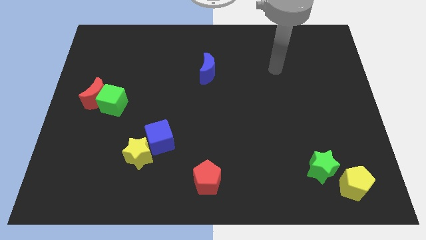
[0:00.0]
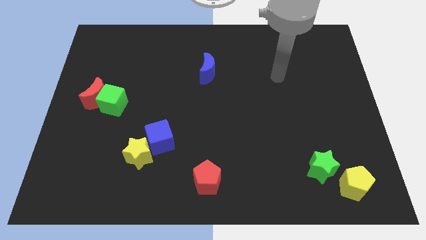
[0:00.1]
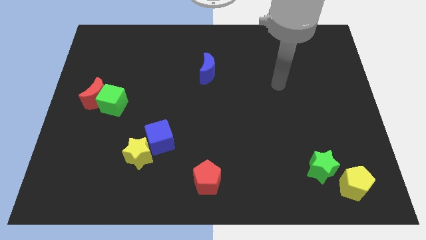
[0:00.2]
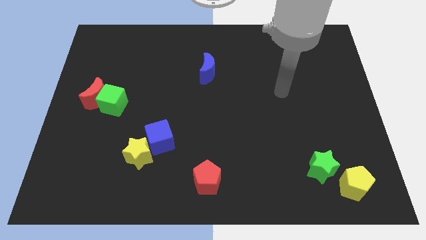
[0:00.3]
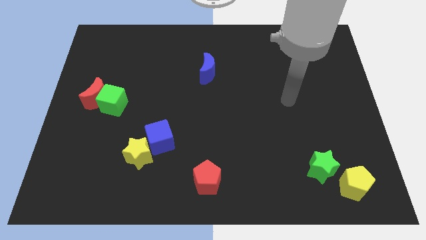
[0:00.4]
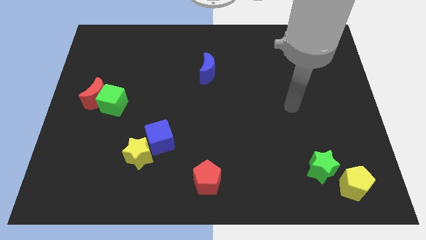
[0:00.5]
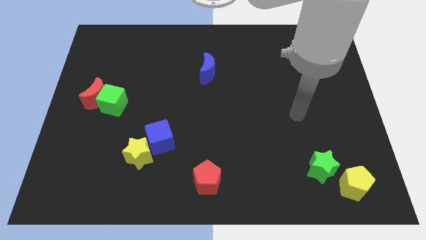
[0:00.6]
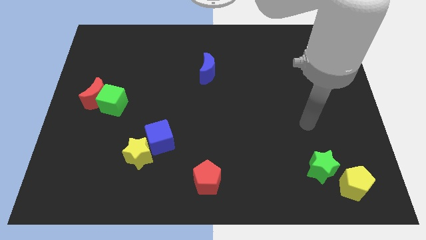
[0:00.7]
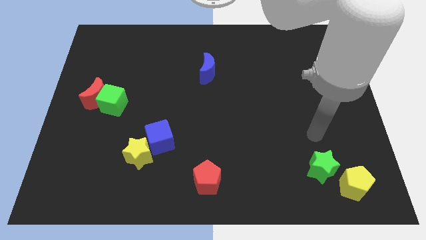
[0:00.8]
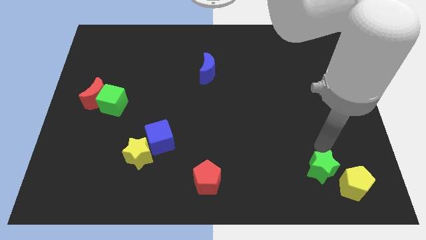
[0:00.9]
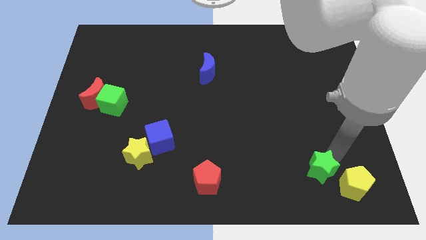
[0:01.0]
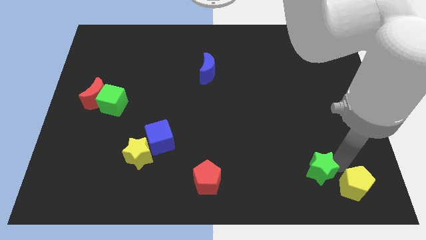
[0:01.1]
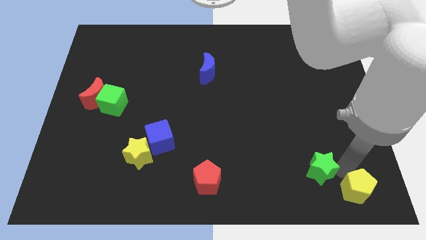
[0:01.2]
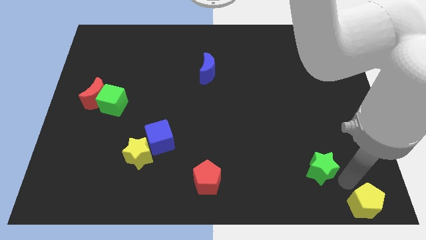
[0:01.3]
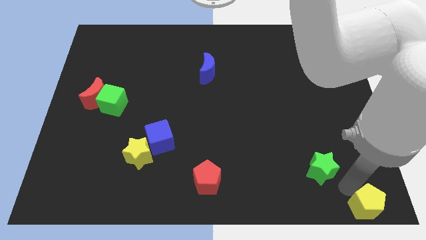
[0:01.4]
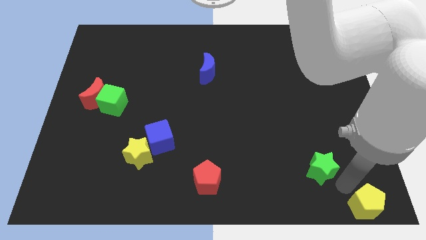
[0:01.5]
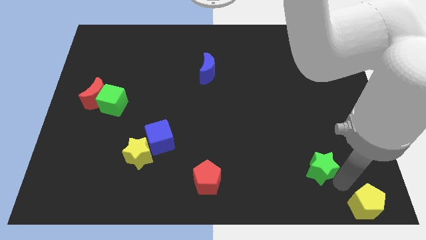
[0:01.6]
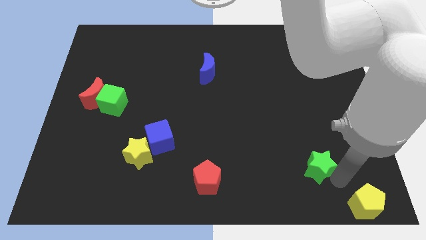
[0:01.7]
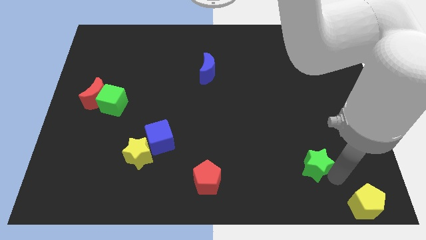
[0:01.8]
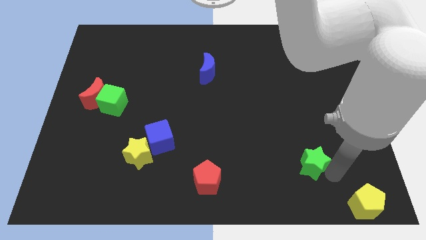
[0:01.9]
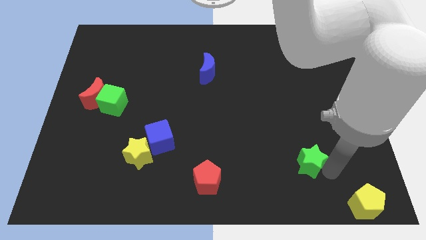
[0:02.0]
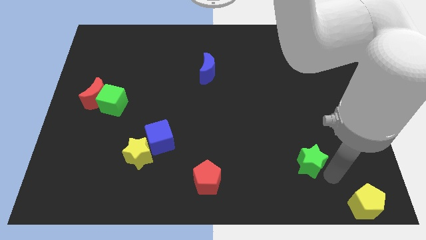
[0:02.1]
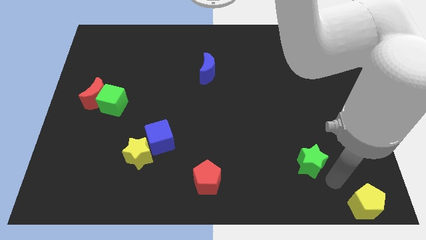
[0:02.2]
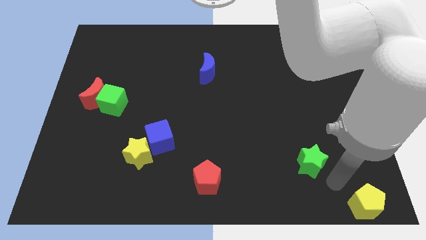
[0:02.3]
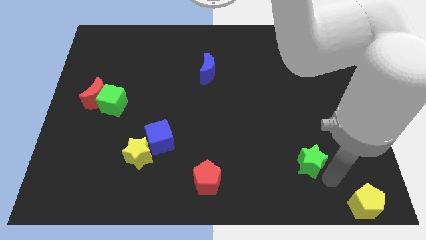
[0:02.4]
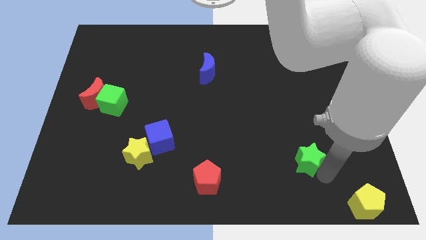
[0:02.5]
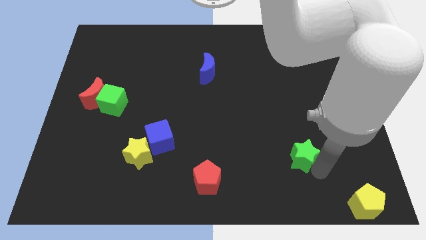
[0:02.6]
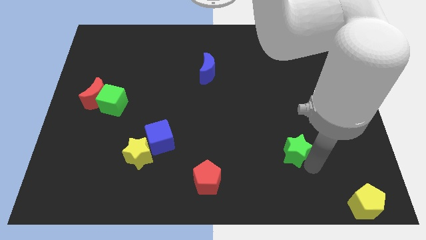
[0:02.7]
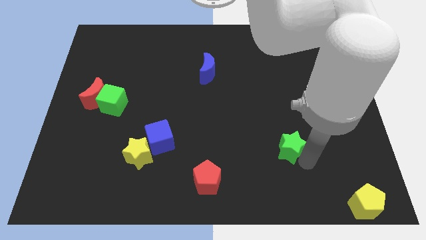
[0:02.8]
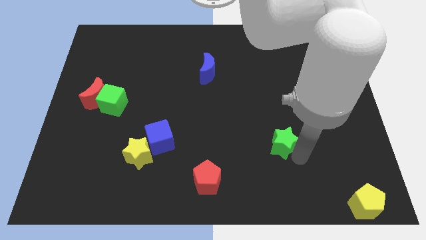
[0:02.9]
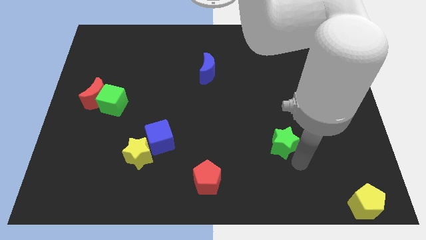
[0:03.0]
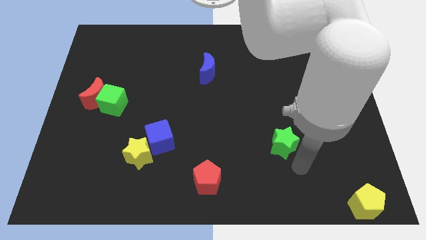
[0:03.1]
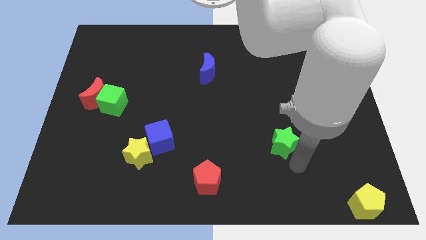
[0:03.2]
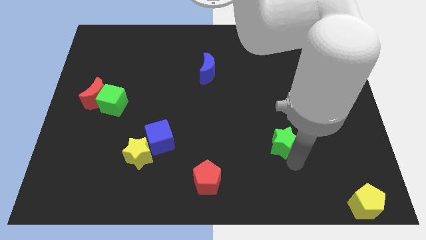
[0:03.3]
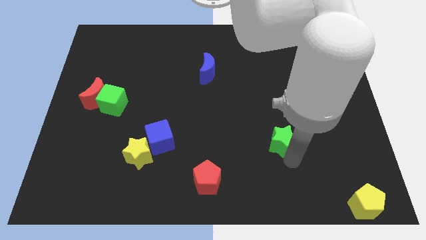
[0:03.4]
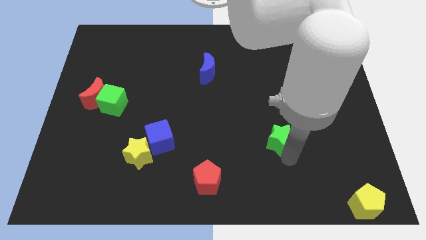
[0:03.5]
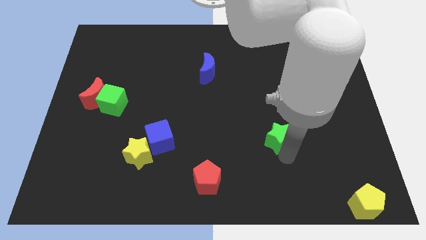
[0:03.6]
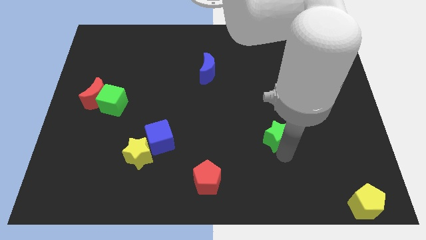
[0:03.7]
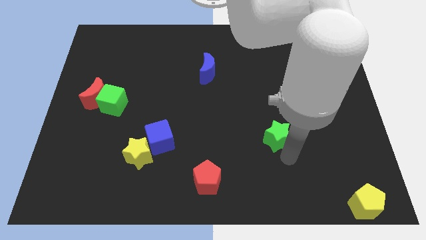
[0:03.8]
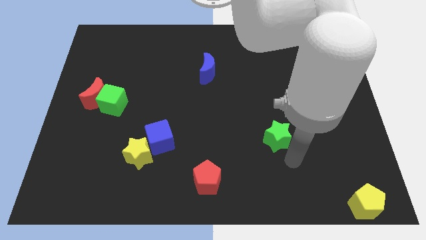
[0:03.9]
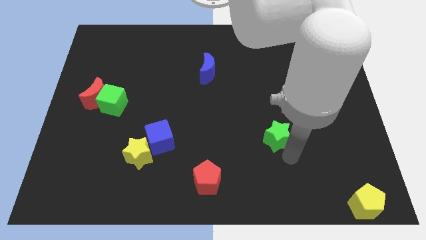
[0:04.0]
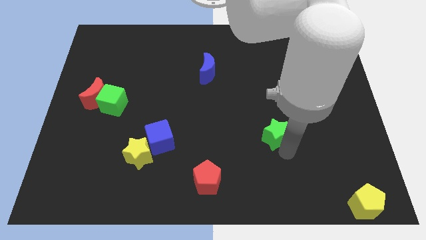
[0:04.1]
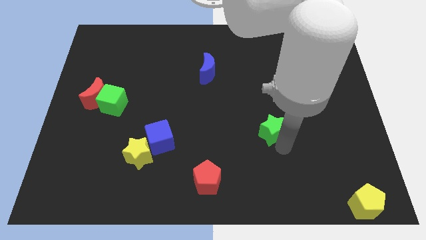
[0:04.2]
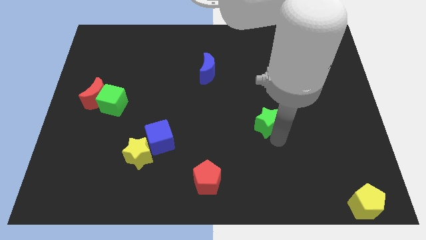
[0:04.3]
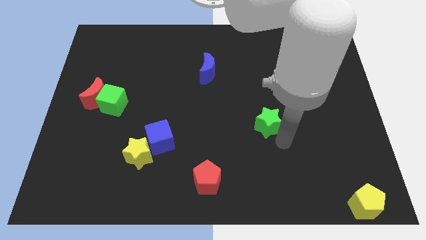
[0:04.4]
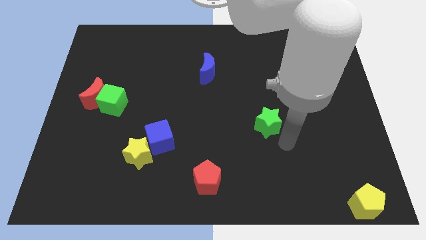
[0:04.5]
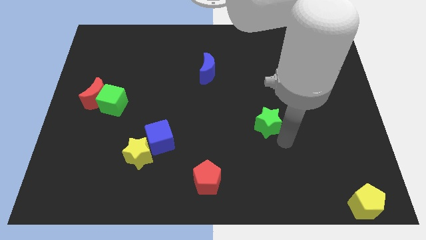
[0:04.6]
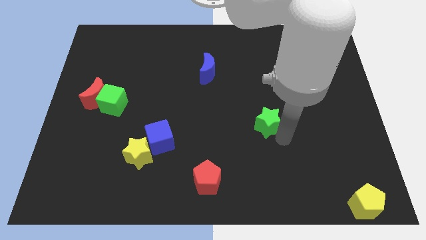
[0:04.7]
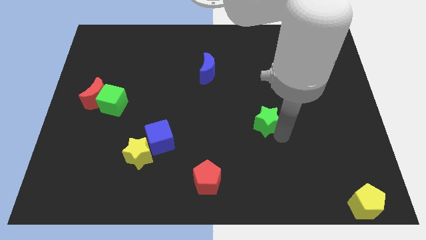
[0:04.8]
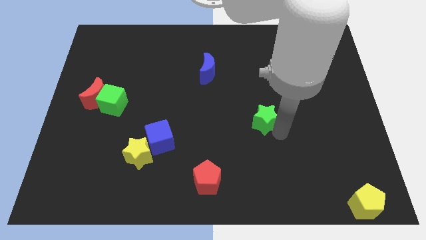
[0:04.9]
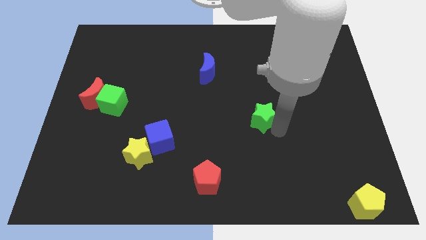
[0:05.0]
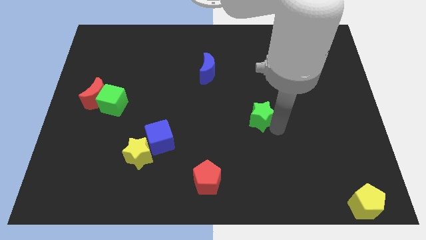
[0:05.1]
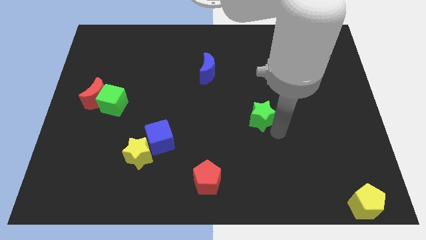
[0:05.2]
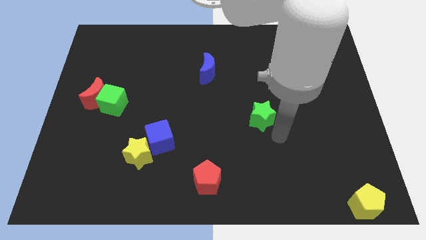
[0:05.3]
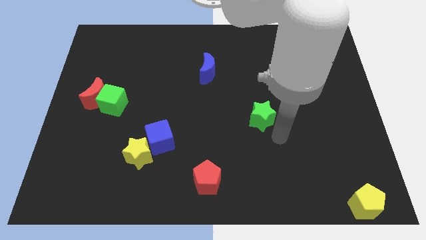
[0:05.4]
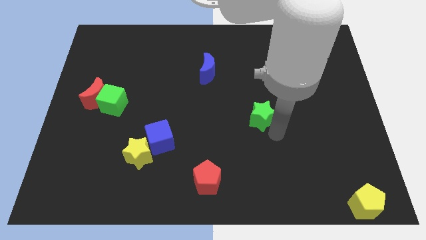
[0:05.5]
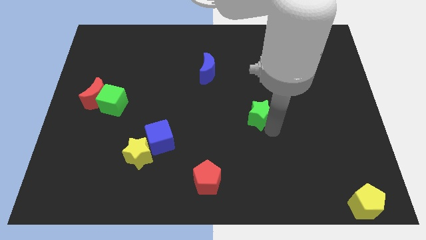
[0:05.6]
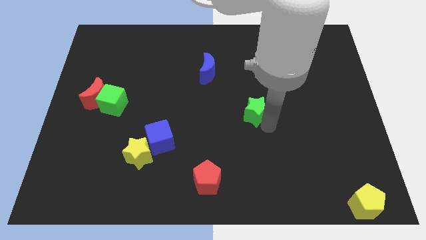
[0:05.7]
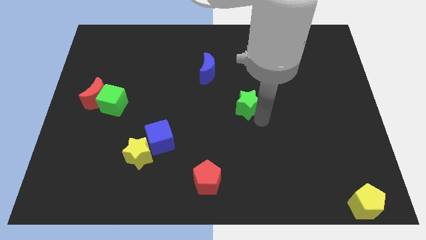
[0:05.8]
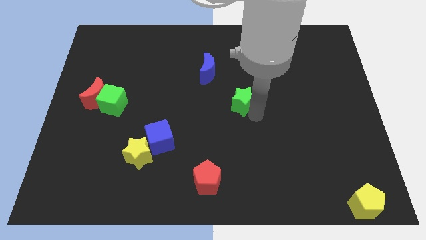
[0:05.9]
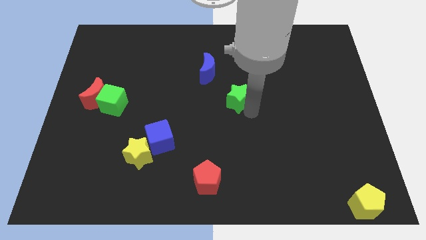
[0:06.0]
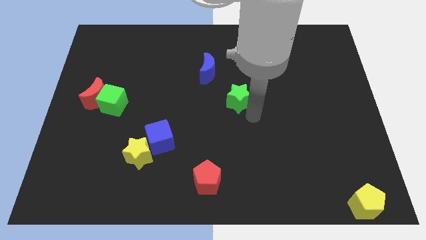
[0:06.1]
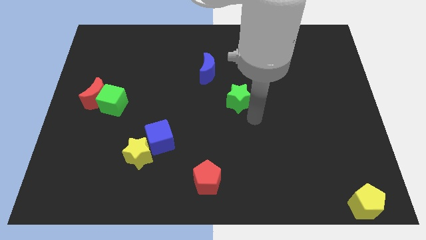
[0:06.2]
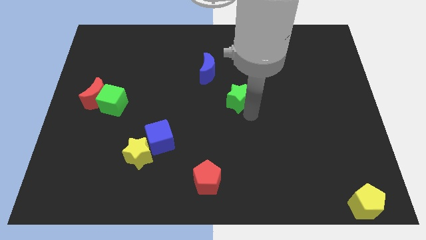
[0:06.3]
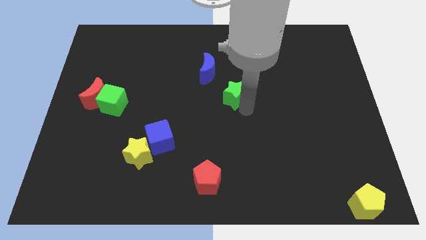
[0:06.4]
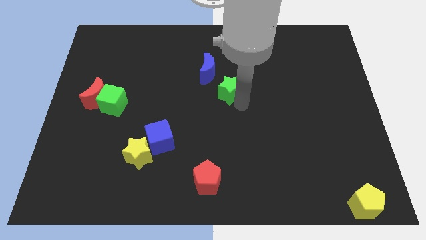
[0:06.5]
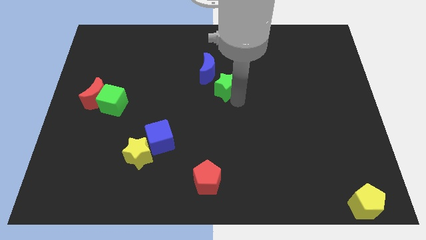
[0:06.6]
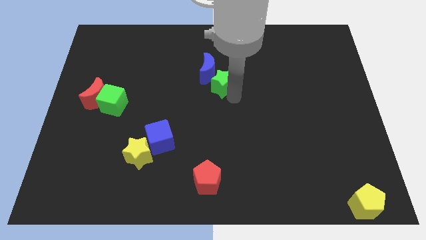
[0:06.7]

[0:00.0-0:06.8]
move the green star towards the blue moon

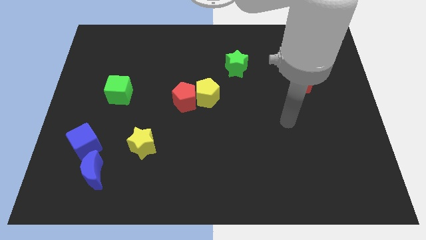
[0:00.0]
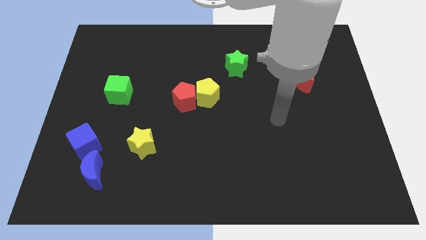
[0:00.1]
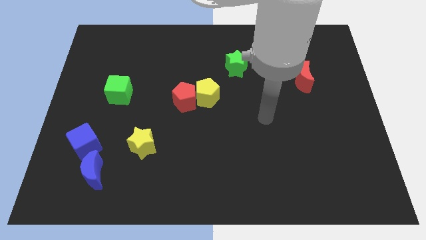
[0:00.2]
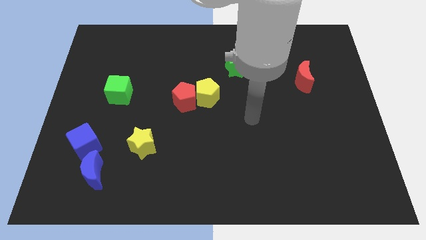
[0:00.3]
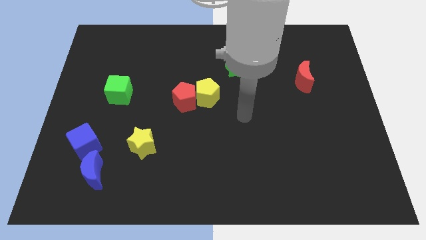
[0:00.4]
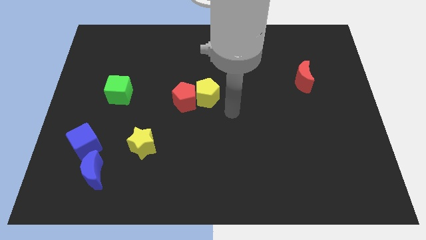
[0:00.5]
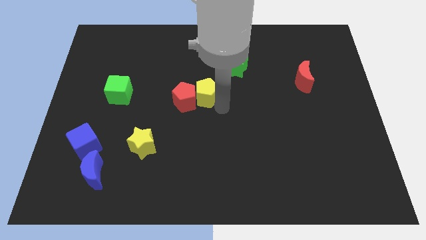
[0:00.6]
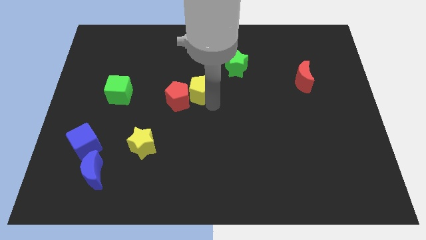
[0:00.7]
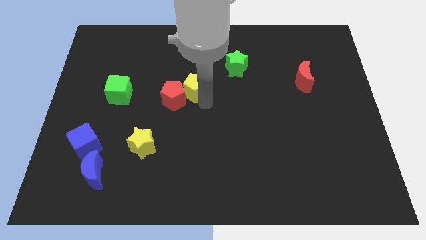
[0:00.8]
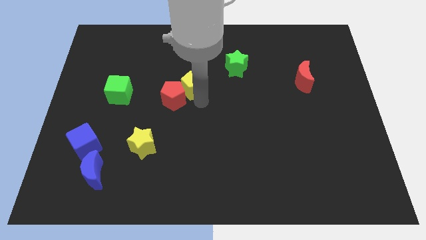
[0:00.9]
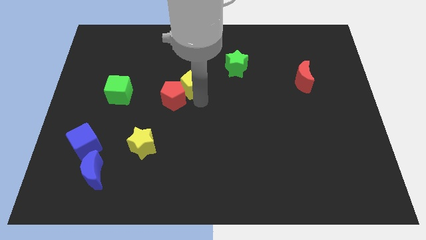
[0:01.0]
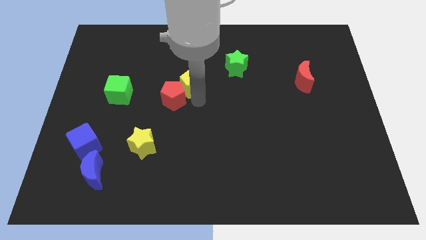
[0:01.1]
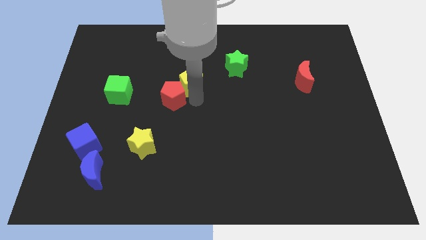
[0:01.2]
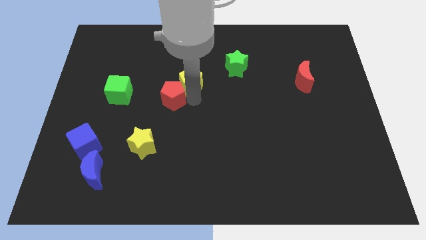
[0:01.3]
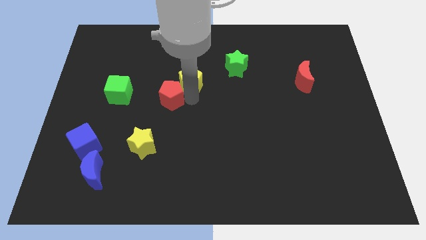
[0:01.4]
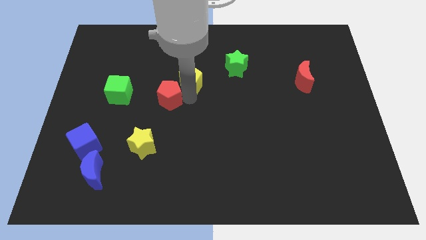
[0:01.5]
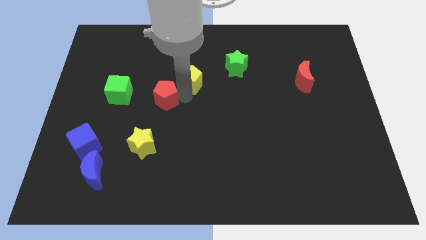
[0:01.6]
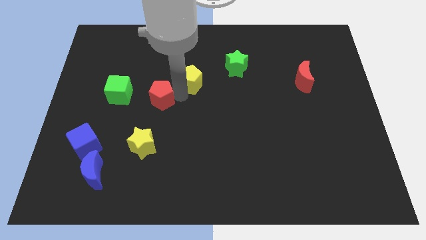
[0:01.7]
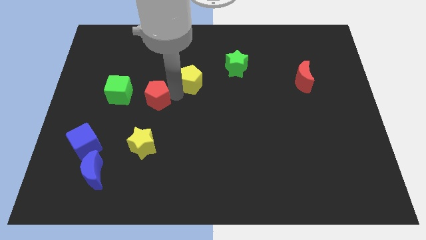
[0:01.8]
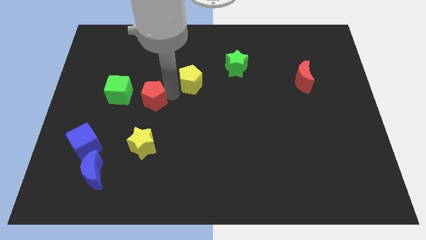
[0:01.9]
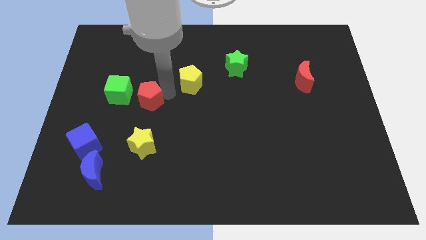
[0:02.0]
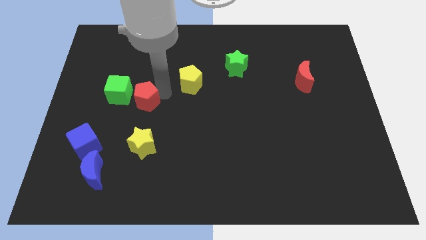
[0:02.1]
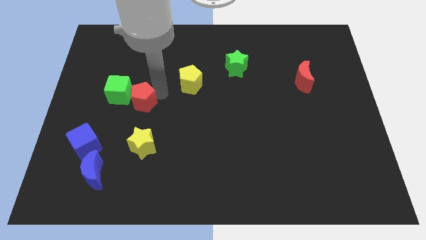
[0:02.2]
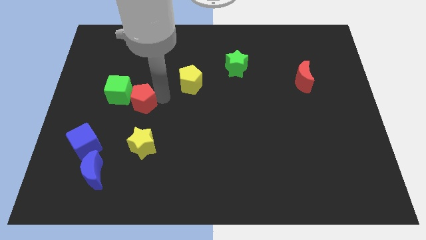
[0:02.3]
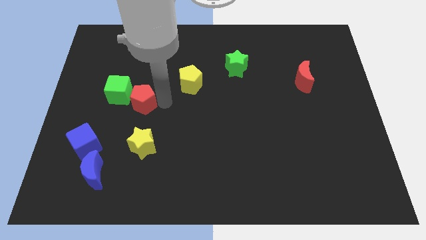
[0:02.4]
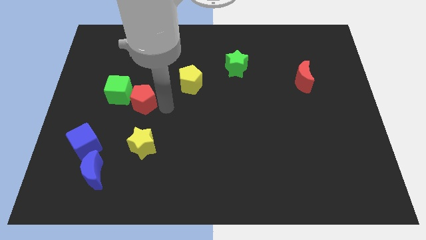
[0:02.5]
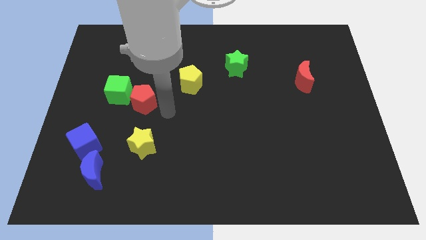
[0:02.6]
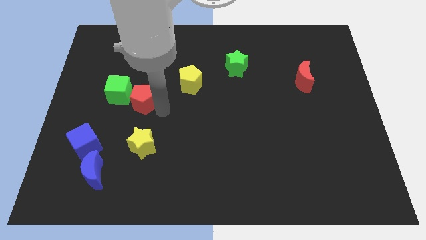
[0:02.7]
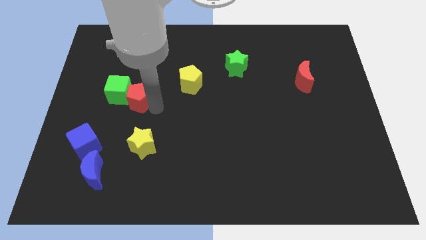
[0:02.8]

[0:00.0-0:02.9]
move the red pentagon towards the green cube
